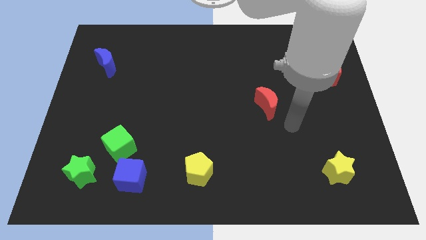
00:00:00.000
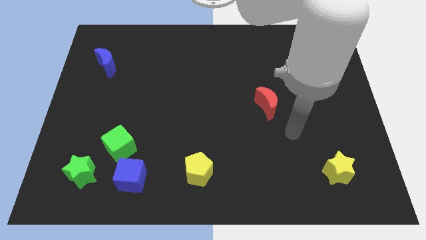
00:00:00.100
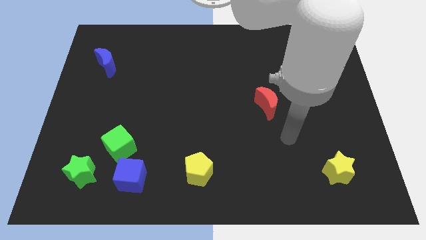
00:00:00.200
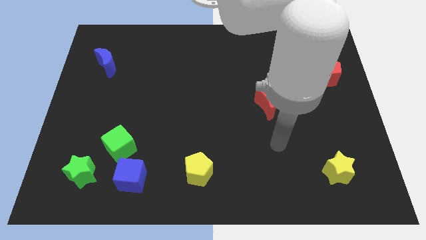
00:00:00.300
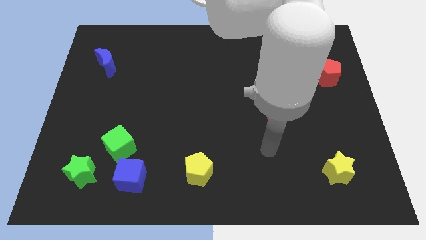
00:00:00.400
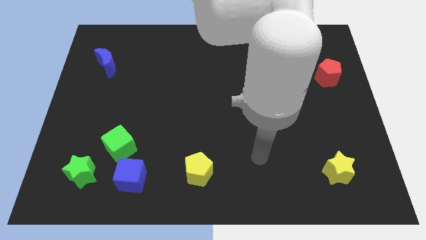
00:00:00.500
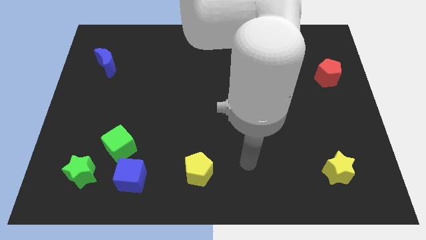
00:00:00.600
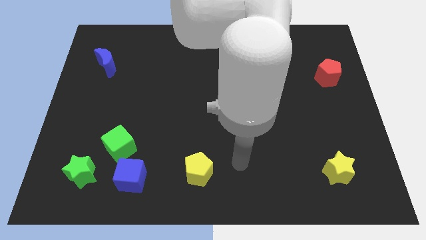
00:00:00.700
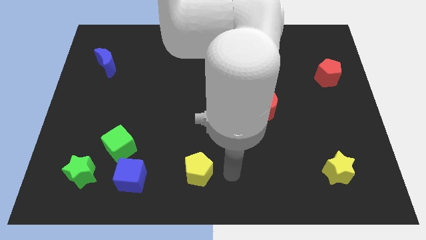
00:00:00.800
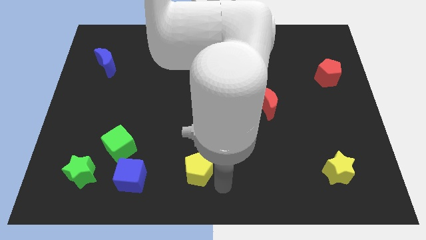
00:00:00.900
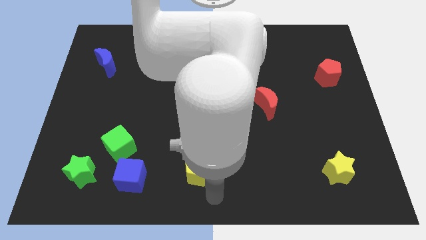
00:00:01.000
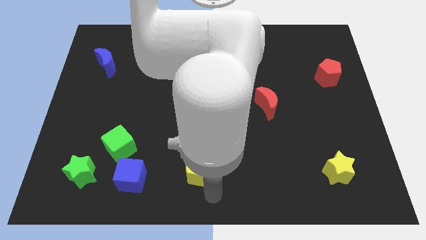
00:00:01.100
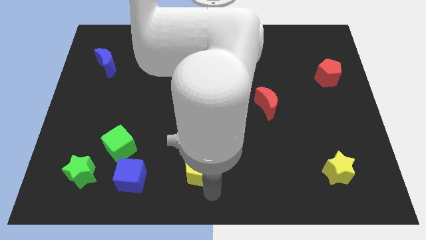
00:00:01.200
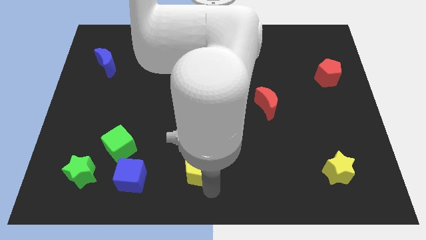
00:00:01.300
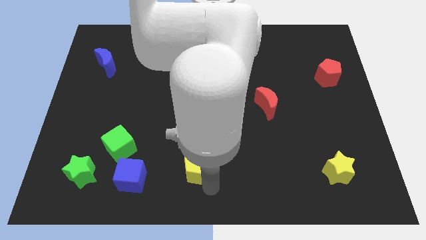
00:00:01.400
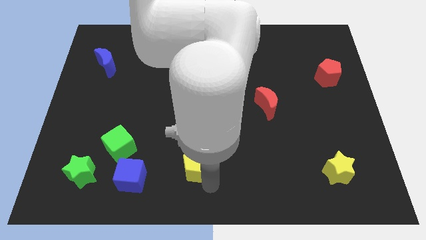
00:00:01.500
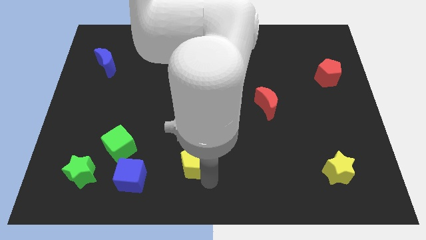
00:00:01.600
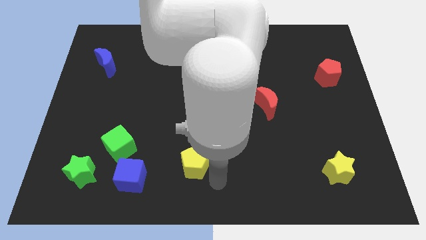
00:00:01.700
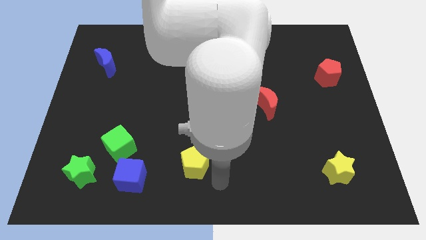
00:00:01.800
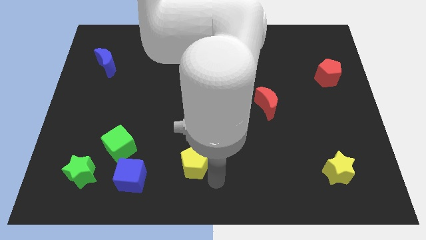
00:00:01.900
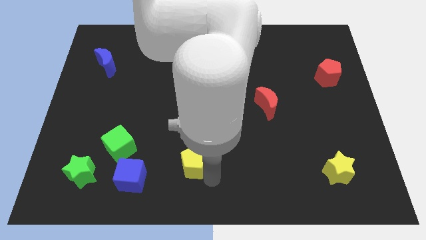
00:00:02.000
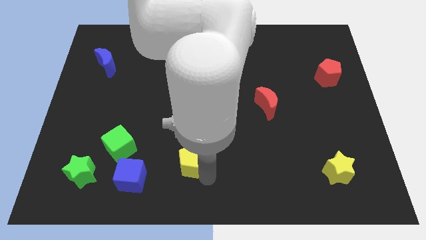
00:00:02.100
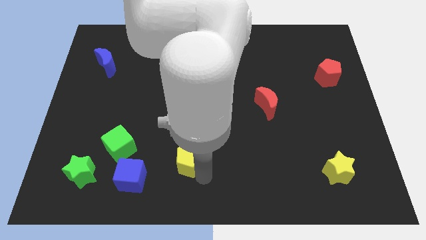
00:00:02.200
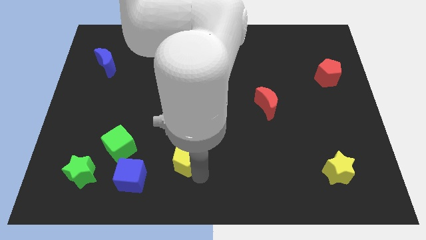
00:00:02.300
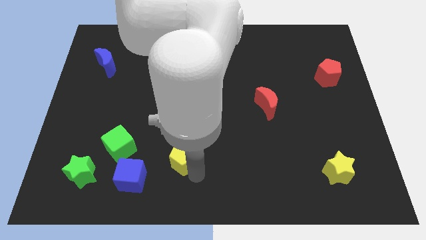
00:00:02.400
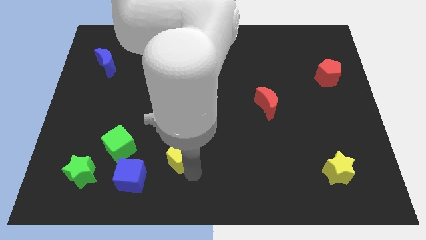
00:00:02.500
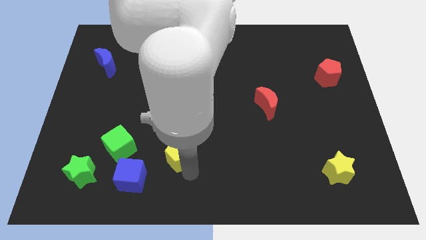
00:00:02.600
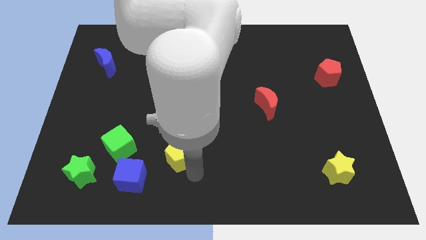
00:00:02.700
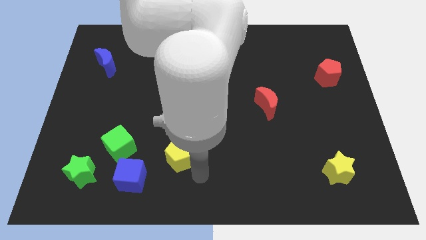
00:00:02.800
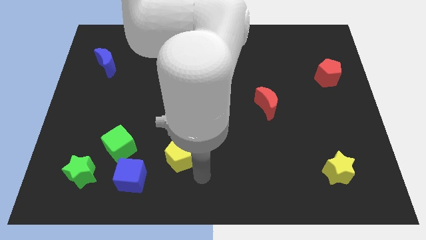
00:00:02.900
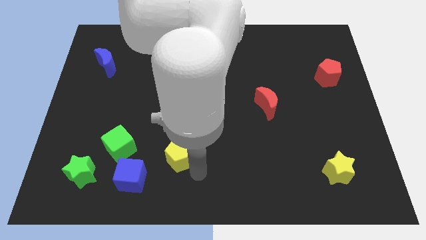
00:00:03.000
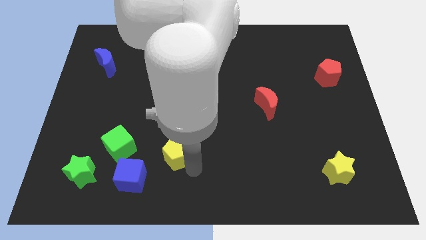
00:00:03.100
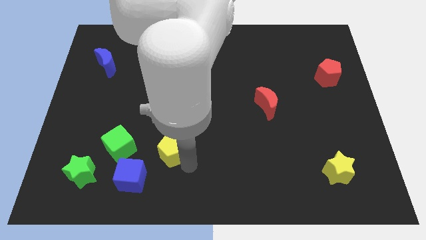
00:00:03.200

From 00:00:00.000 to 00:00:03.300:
slightly move the yellow pentagon up and to the left

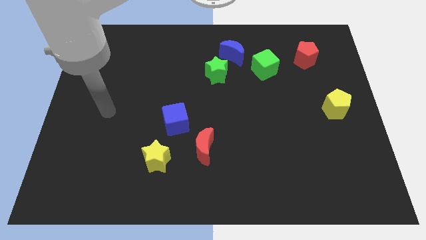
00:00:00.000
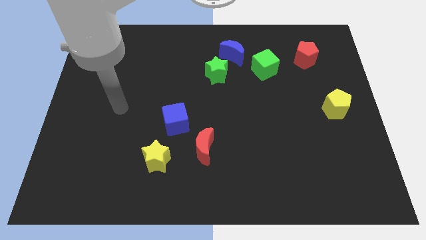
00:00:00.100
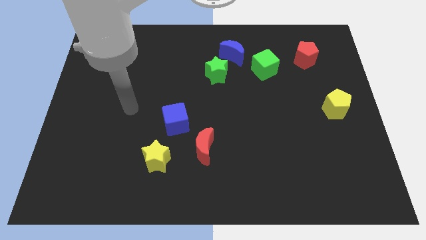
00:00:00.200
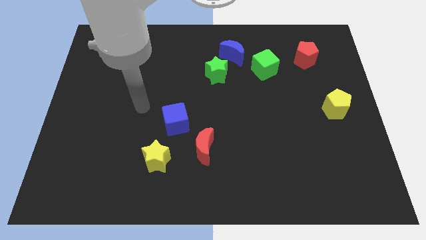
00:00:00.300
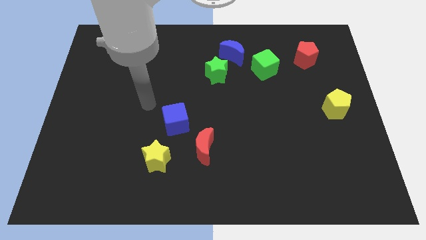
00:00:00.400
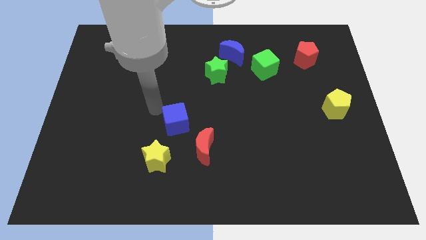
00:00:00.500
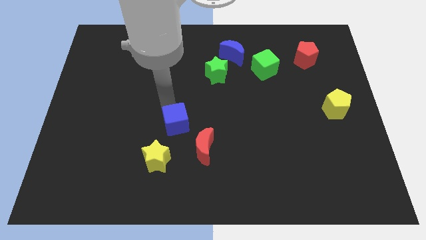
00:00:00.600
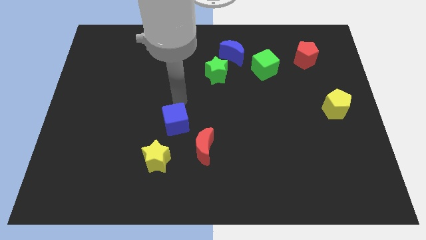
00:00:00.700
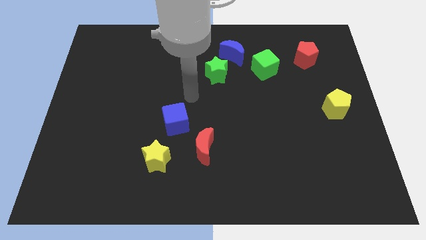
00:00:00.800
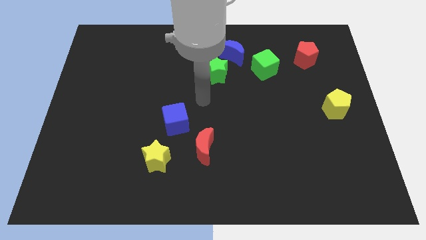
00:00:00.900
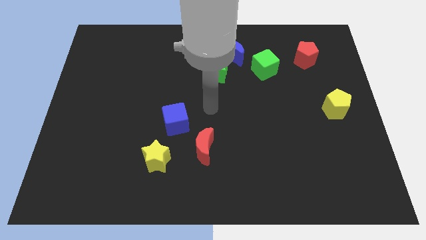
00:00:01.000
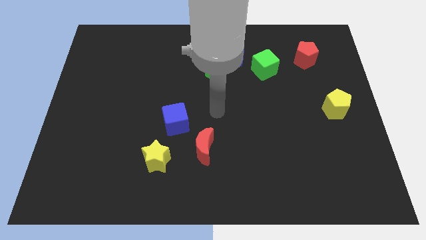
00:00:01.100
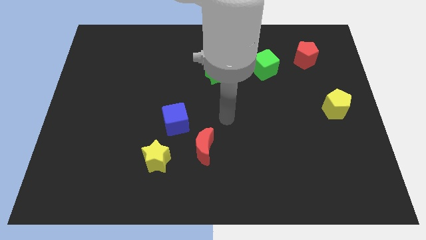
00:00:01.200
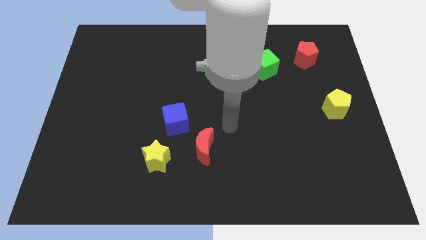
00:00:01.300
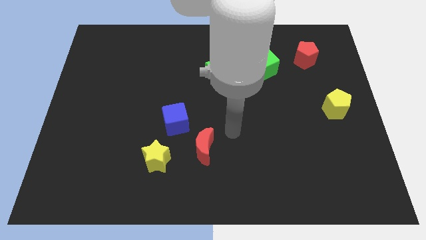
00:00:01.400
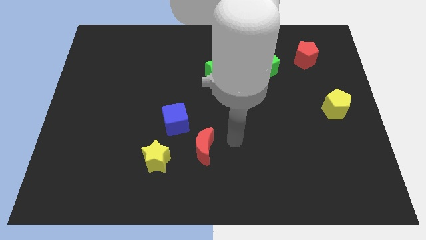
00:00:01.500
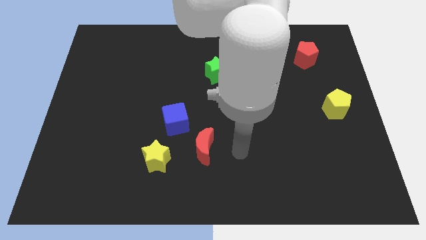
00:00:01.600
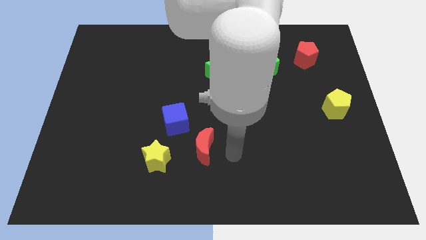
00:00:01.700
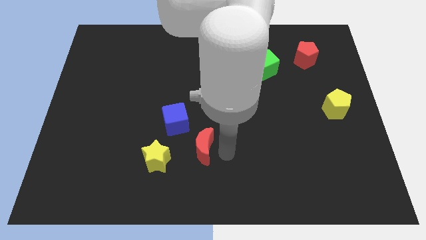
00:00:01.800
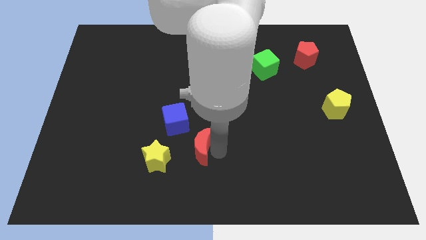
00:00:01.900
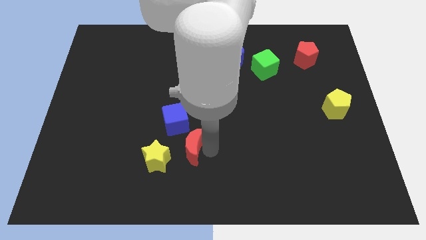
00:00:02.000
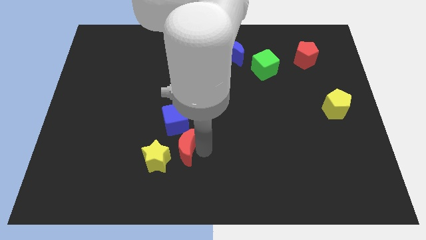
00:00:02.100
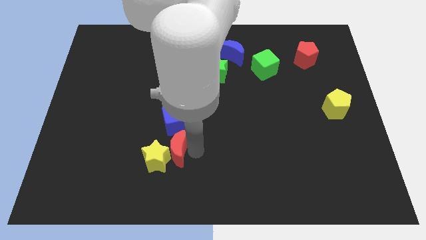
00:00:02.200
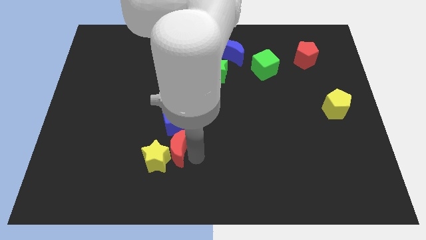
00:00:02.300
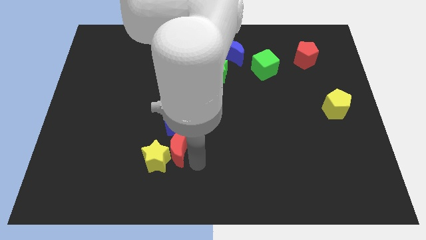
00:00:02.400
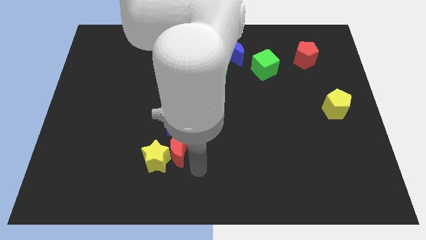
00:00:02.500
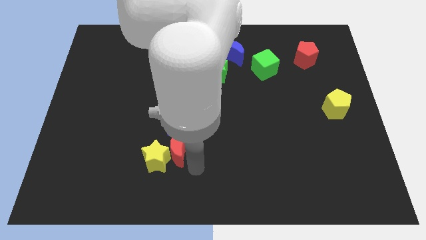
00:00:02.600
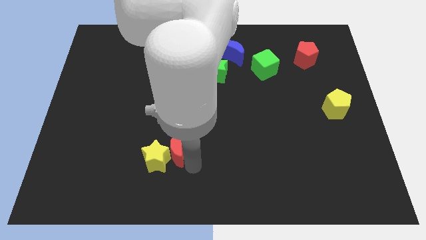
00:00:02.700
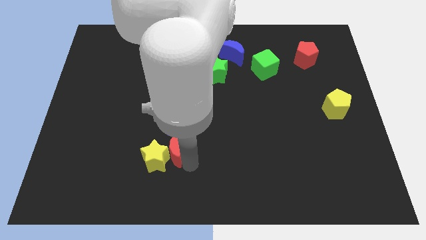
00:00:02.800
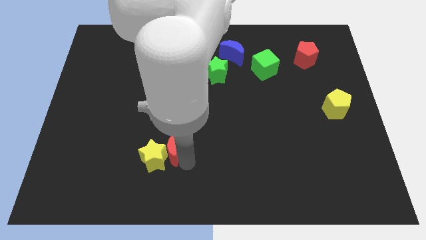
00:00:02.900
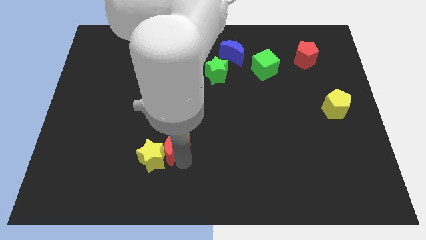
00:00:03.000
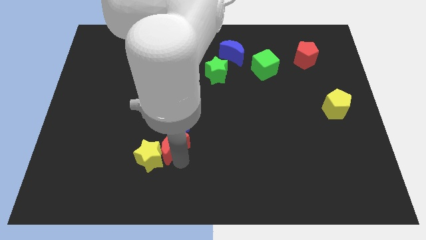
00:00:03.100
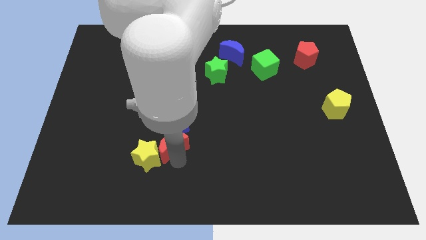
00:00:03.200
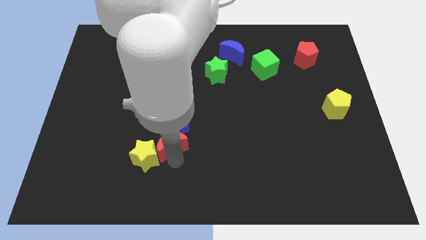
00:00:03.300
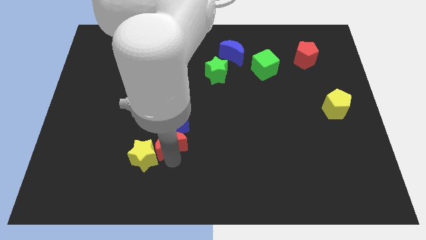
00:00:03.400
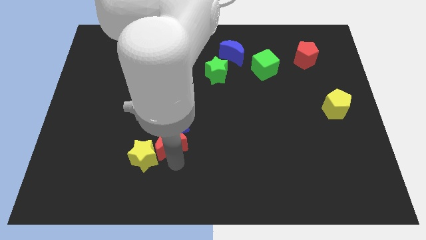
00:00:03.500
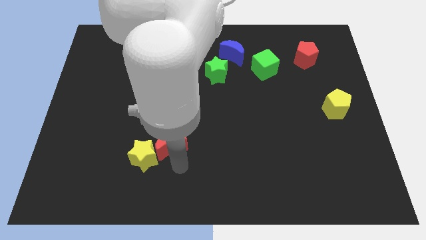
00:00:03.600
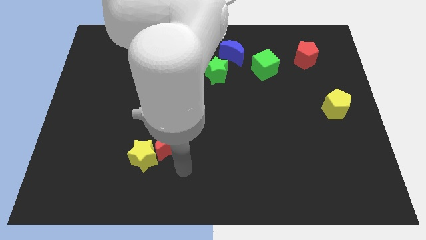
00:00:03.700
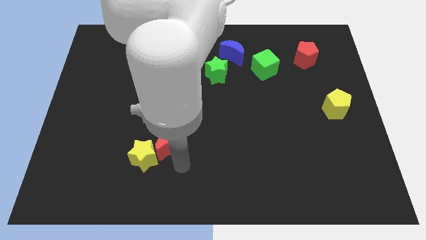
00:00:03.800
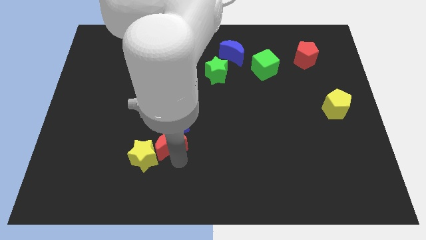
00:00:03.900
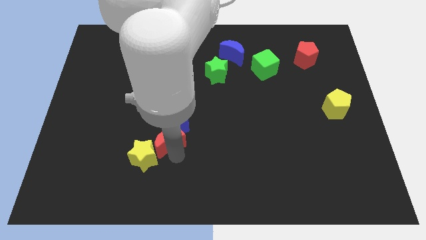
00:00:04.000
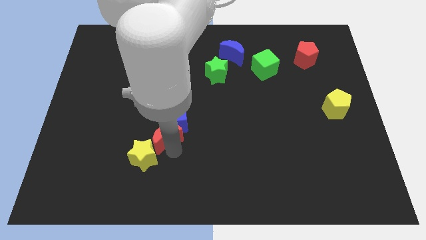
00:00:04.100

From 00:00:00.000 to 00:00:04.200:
move the red moon up and then to the left slightly

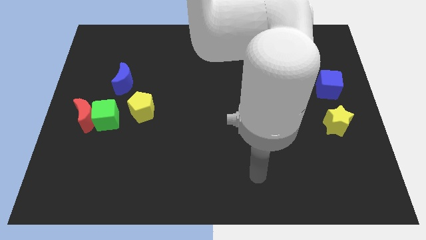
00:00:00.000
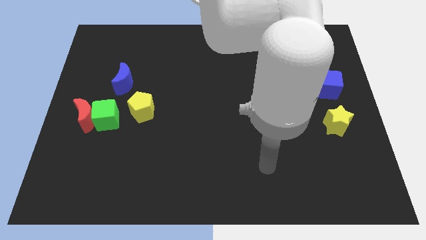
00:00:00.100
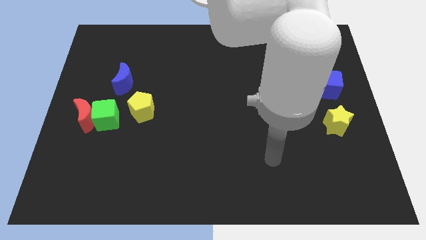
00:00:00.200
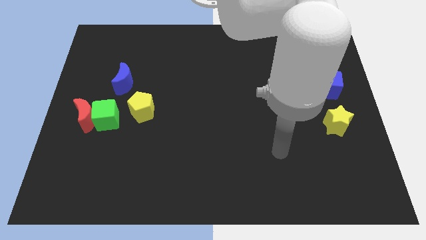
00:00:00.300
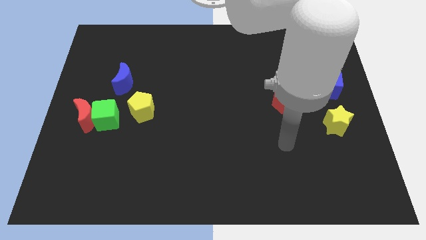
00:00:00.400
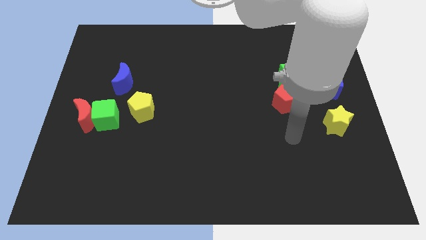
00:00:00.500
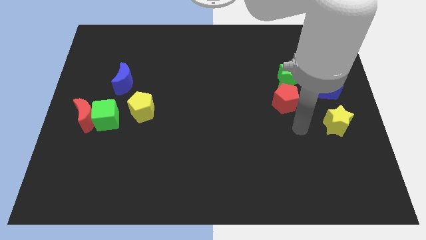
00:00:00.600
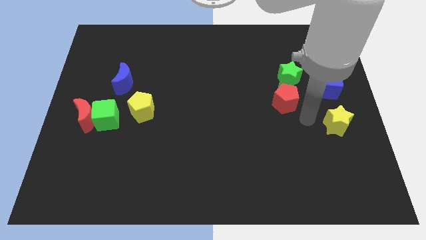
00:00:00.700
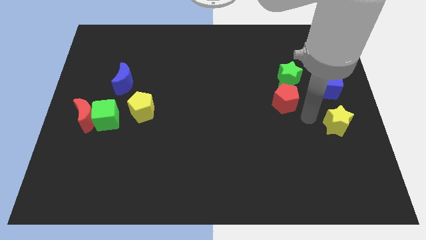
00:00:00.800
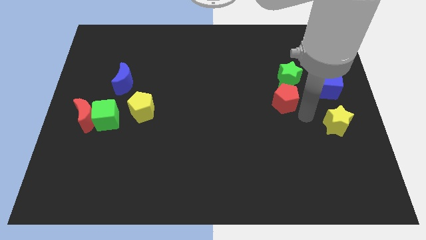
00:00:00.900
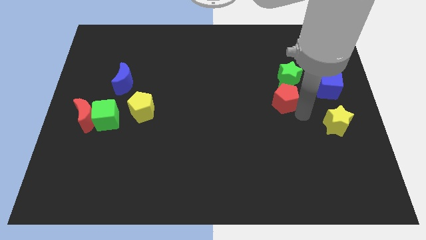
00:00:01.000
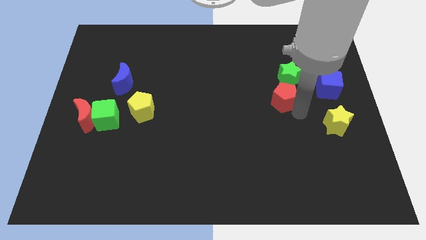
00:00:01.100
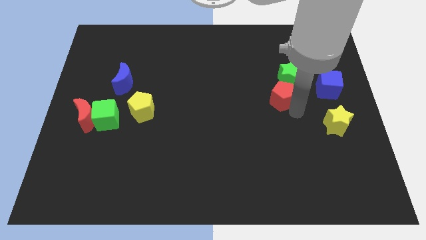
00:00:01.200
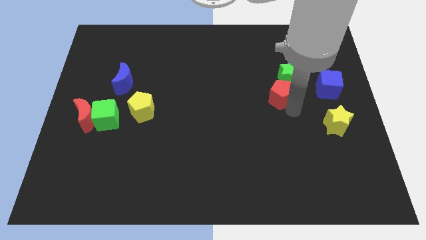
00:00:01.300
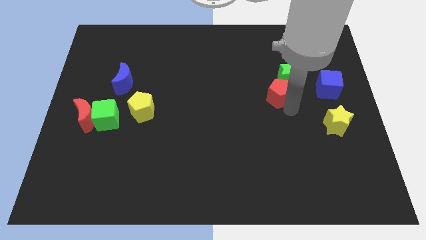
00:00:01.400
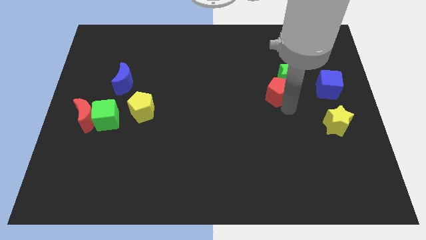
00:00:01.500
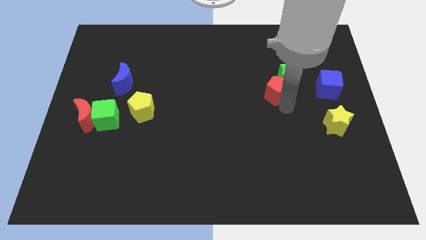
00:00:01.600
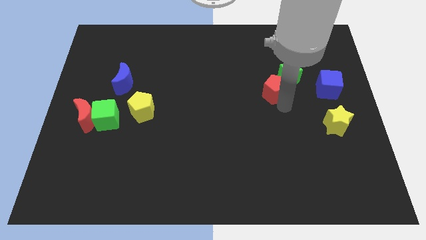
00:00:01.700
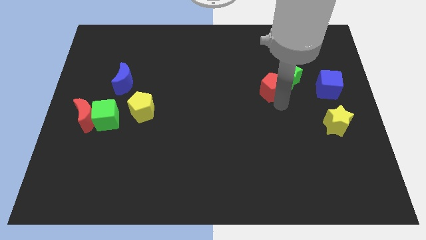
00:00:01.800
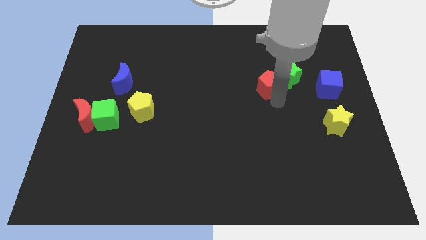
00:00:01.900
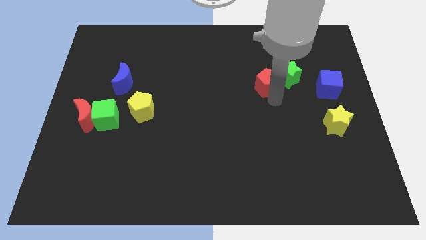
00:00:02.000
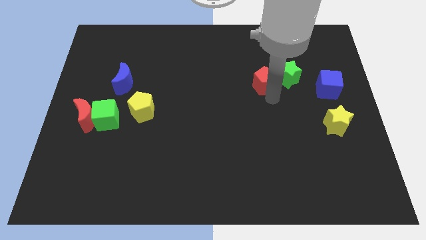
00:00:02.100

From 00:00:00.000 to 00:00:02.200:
move the red pentagon upwards and to the left diagonally somewhat
